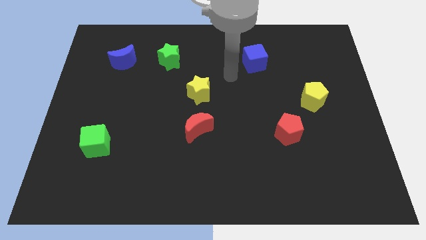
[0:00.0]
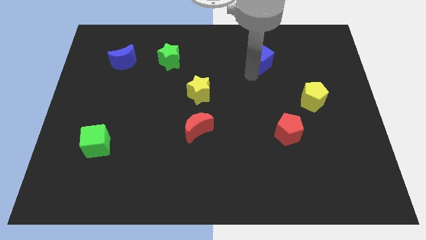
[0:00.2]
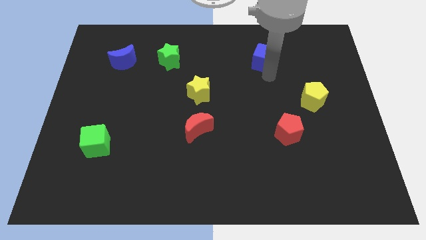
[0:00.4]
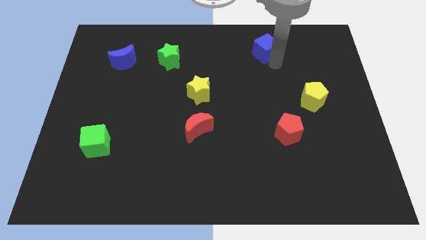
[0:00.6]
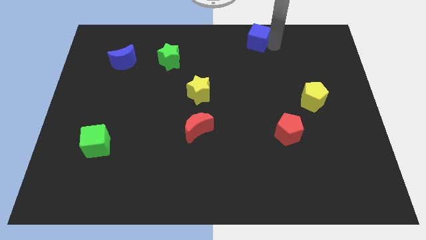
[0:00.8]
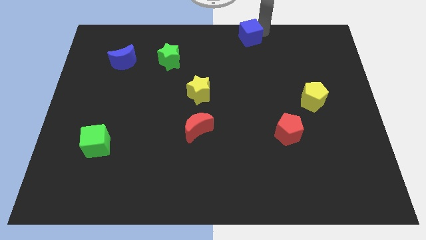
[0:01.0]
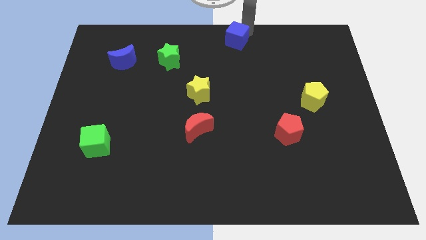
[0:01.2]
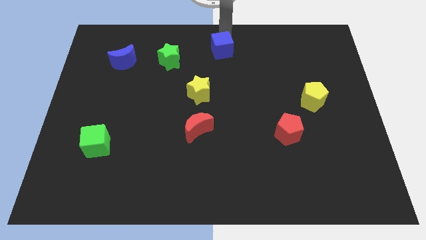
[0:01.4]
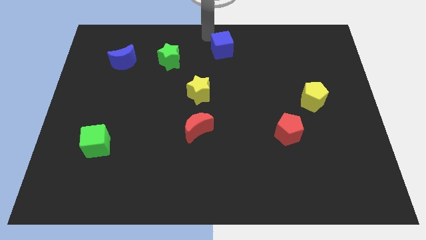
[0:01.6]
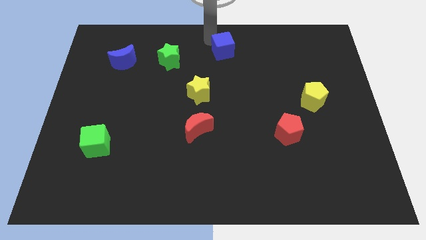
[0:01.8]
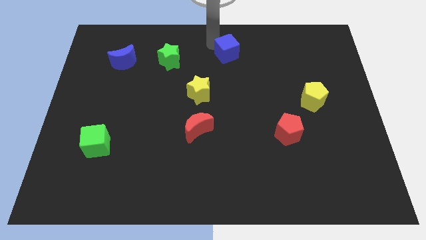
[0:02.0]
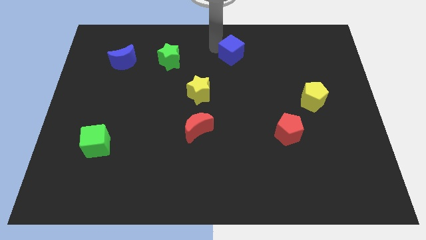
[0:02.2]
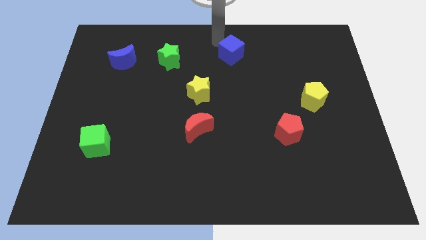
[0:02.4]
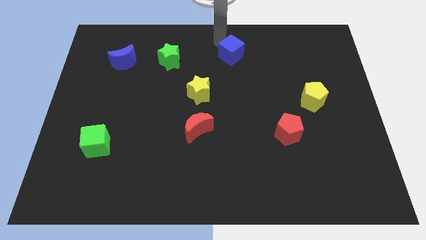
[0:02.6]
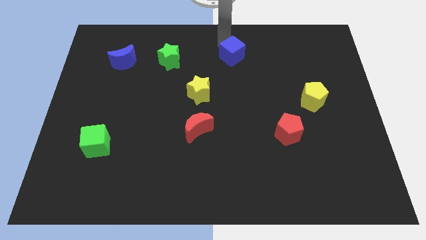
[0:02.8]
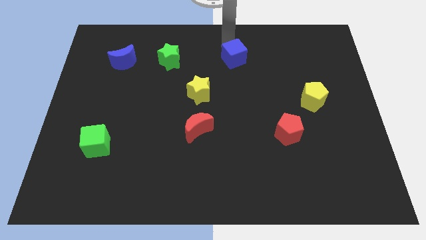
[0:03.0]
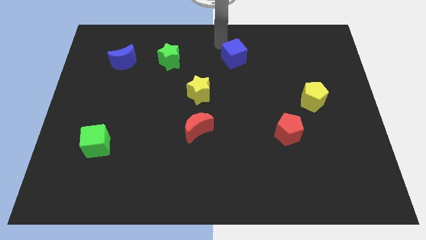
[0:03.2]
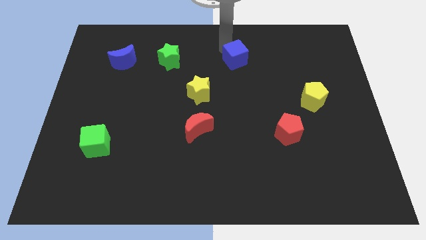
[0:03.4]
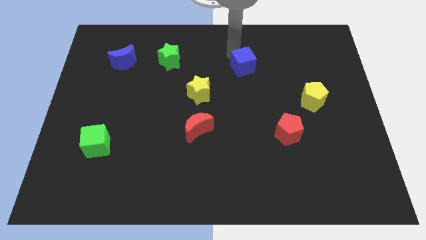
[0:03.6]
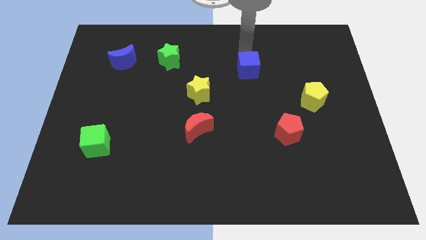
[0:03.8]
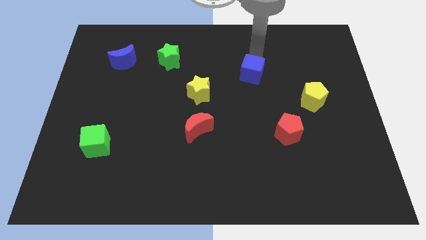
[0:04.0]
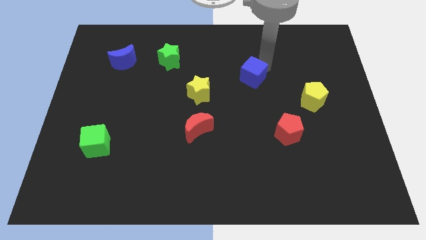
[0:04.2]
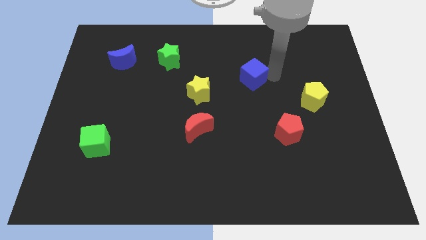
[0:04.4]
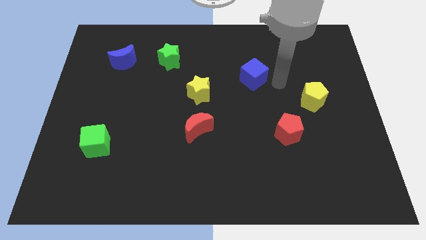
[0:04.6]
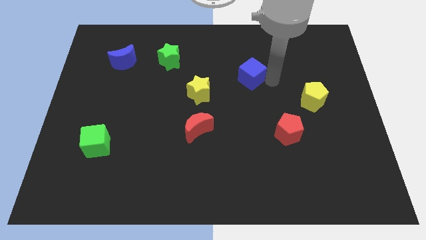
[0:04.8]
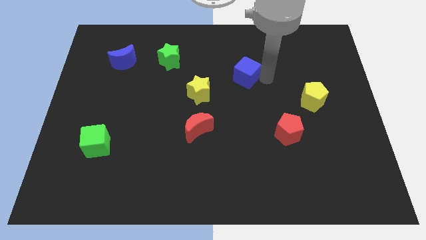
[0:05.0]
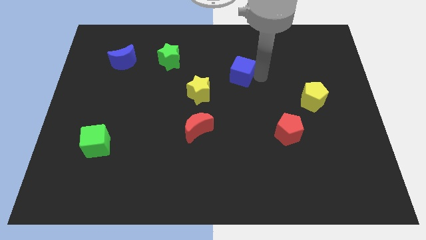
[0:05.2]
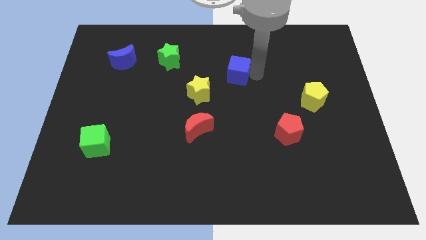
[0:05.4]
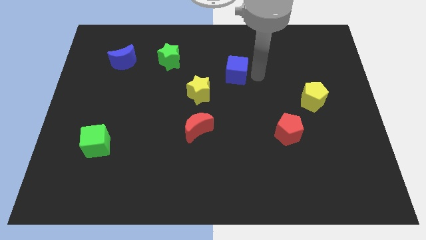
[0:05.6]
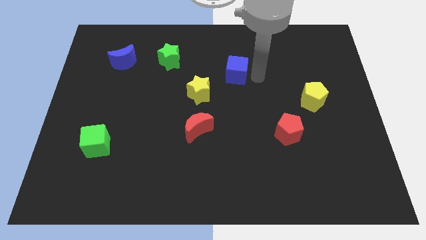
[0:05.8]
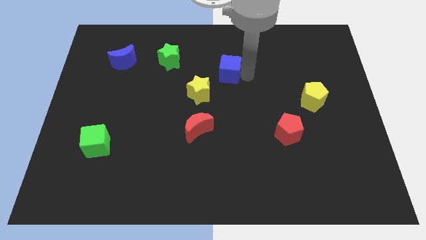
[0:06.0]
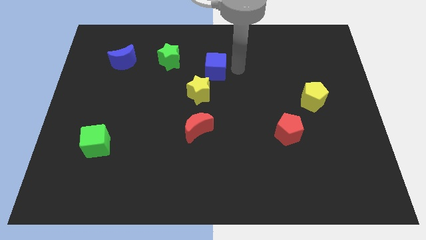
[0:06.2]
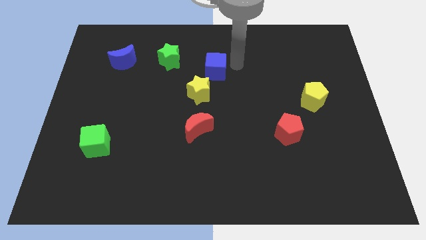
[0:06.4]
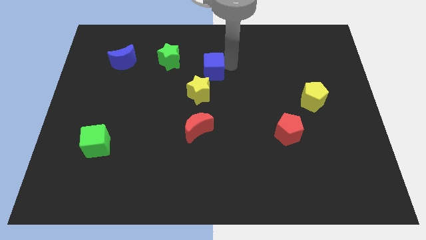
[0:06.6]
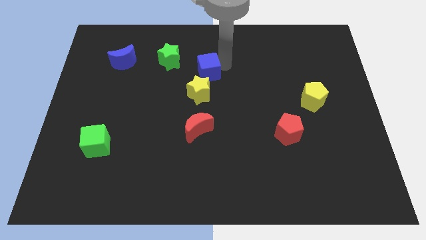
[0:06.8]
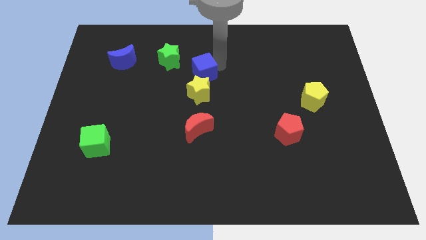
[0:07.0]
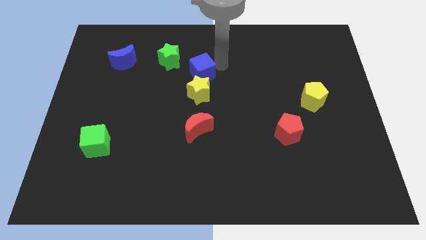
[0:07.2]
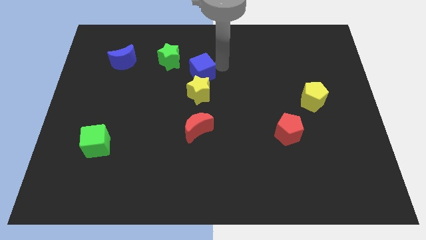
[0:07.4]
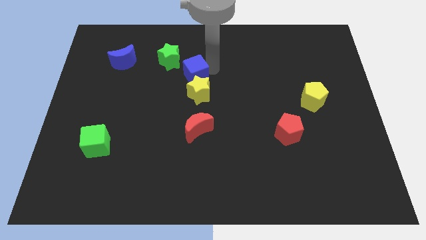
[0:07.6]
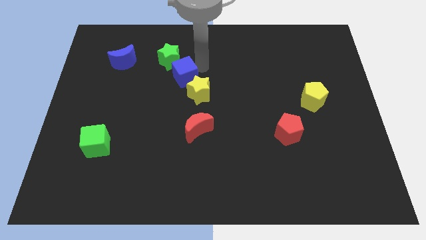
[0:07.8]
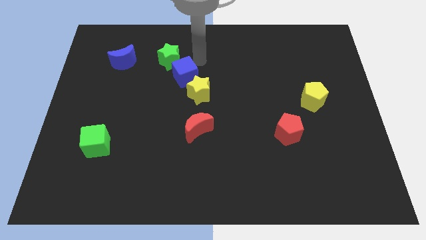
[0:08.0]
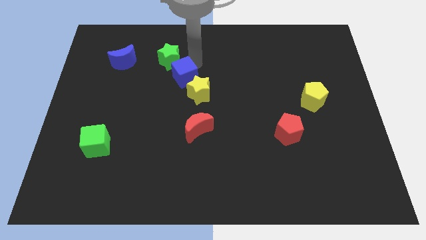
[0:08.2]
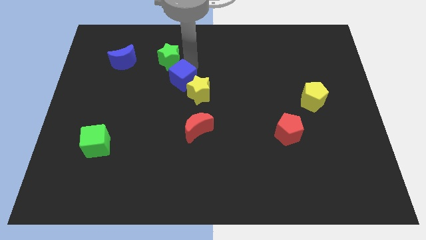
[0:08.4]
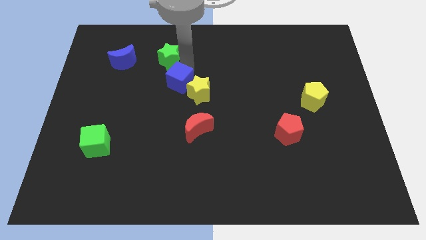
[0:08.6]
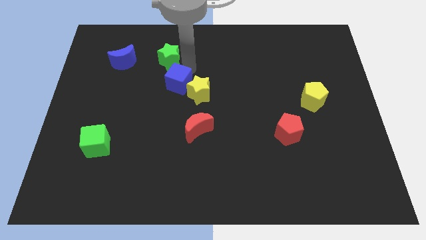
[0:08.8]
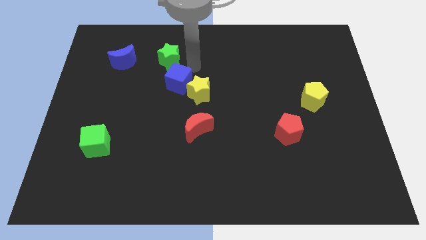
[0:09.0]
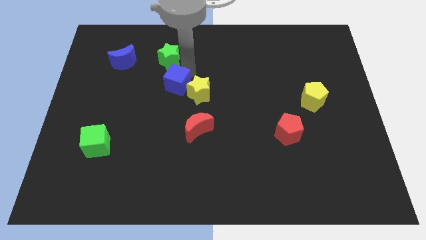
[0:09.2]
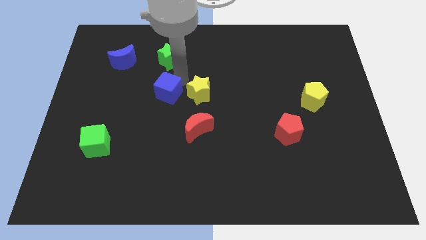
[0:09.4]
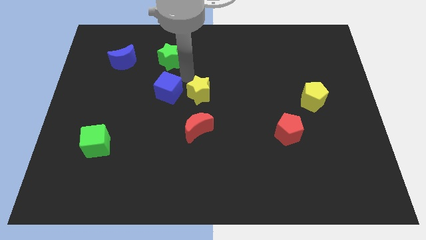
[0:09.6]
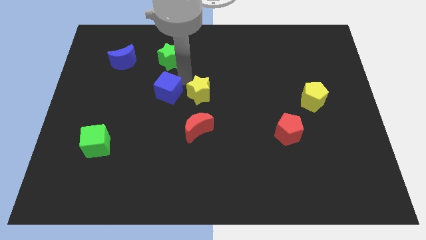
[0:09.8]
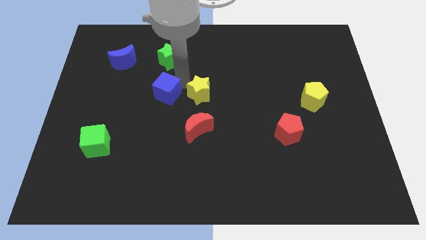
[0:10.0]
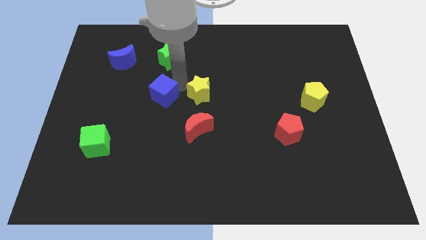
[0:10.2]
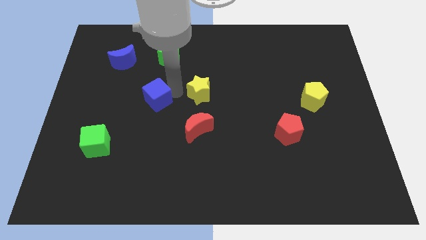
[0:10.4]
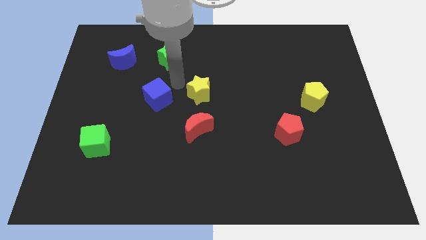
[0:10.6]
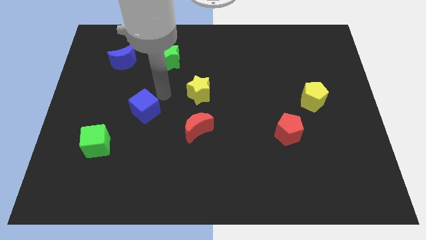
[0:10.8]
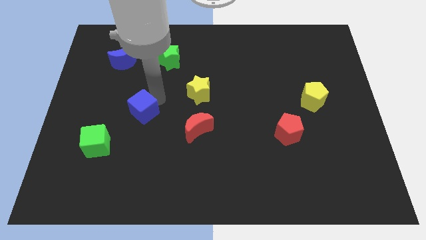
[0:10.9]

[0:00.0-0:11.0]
move the blue cube diagonally up and to the right of the green cube

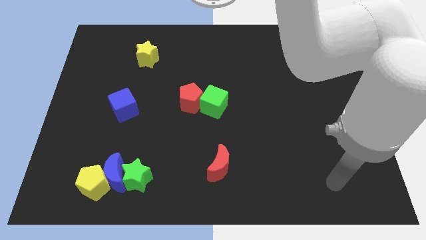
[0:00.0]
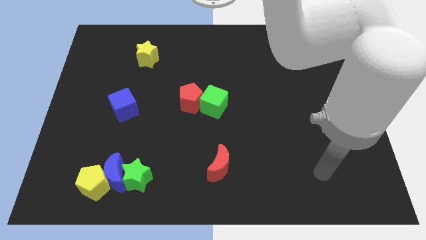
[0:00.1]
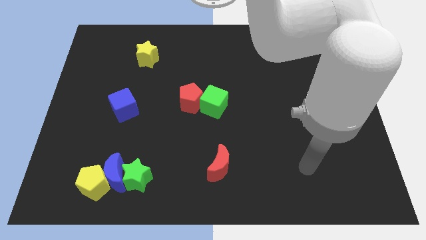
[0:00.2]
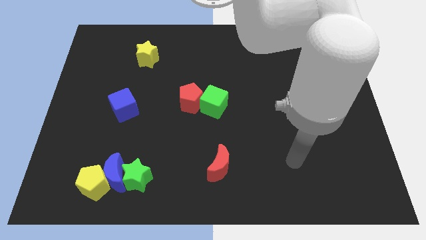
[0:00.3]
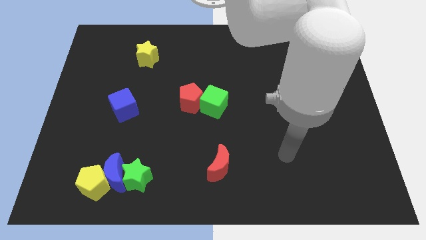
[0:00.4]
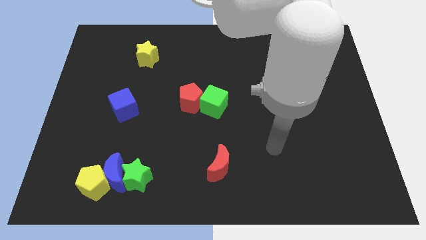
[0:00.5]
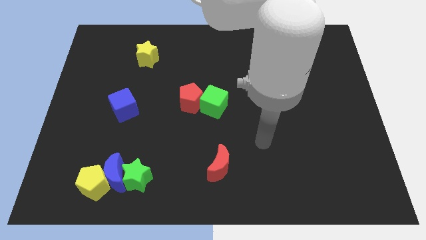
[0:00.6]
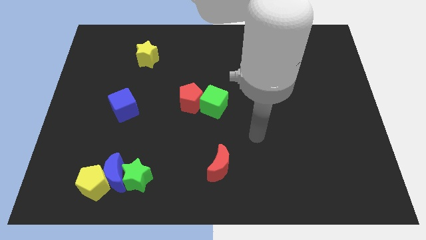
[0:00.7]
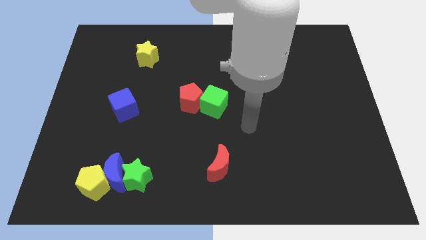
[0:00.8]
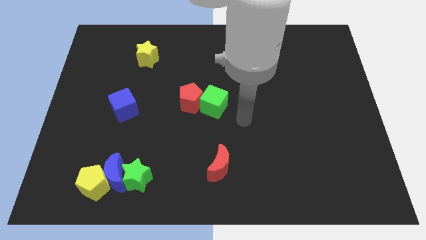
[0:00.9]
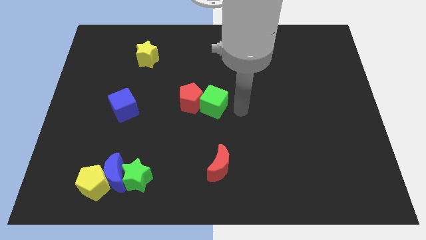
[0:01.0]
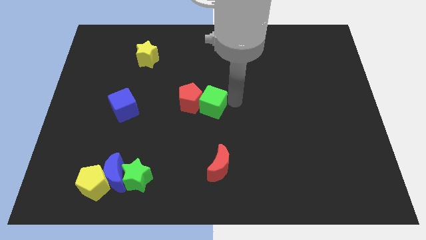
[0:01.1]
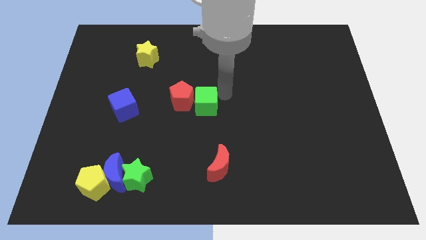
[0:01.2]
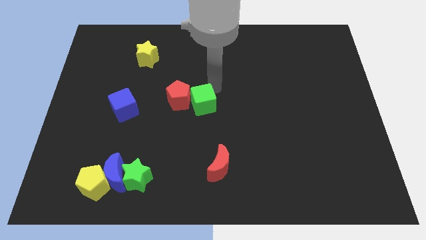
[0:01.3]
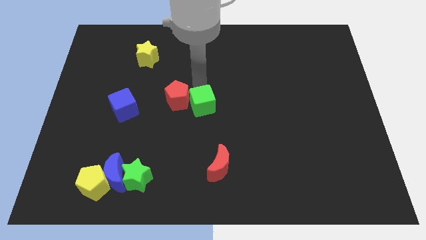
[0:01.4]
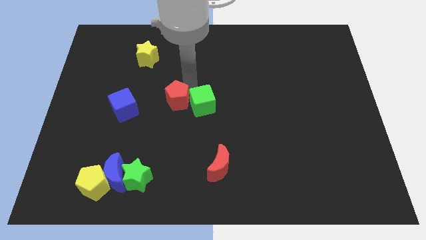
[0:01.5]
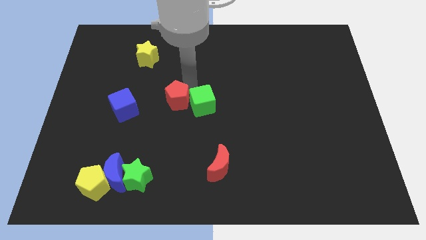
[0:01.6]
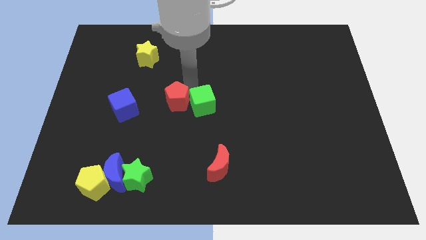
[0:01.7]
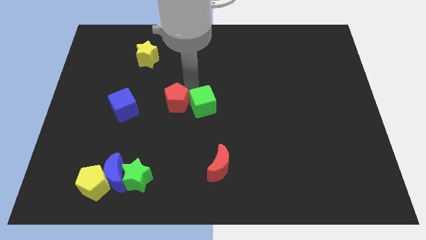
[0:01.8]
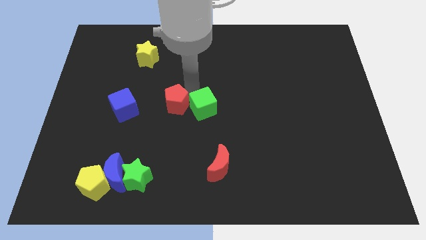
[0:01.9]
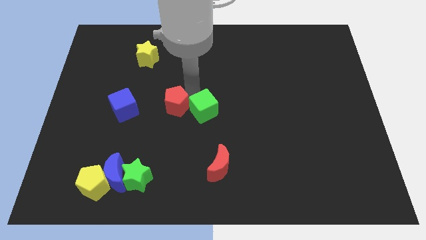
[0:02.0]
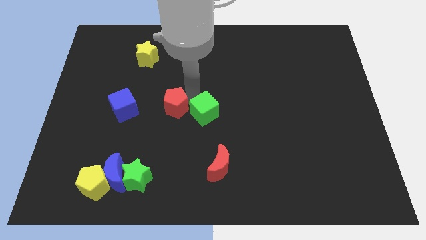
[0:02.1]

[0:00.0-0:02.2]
push the green cube above the red moon

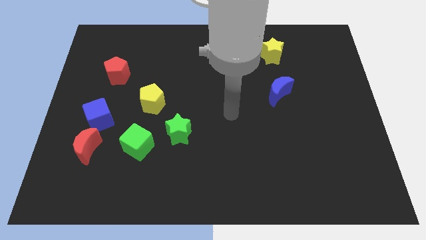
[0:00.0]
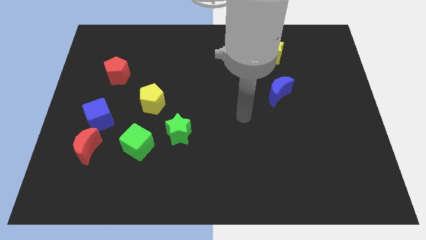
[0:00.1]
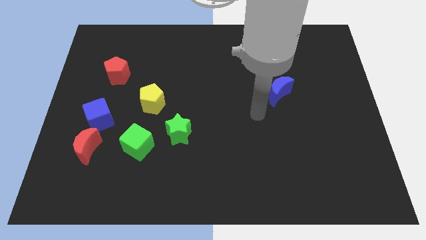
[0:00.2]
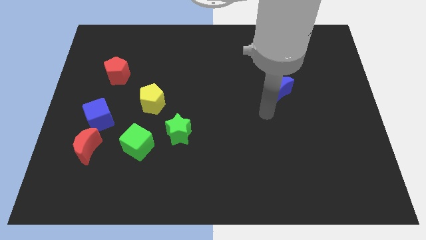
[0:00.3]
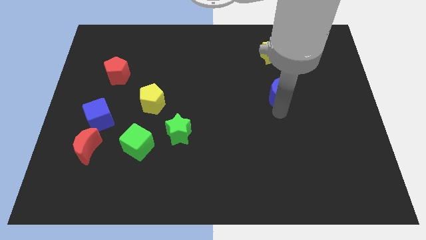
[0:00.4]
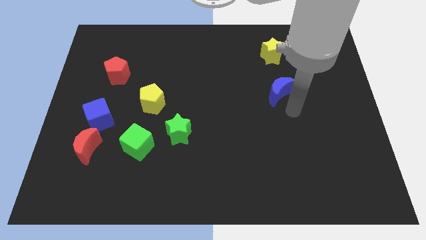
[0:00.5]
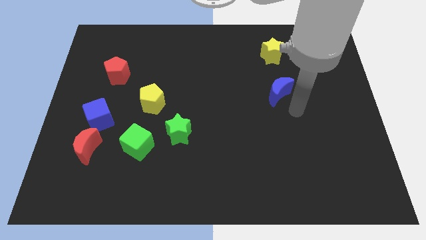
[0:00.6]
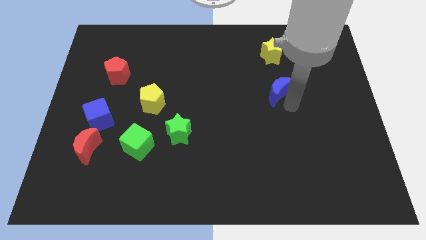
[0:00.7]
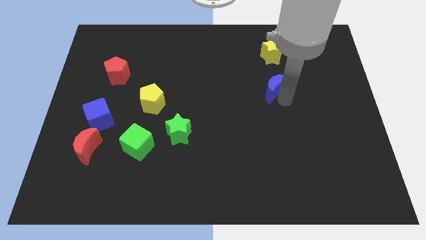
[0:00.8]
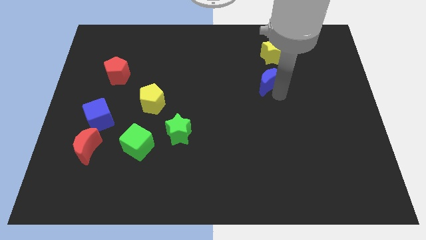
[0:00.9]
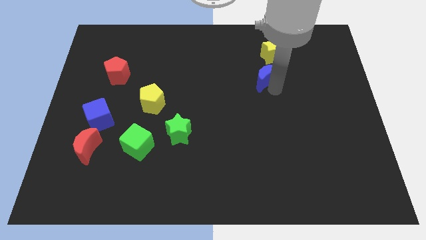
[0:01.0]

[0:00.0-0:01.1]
slide the blue moon to the bottom left side of the yellow star
